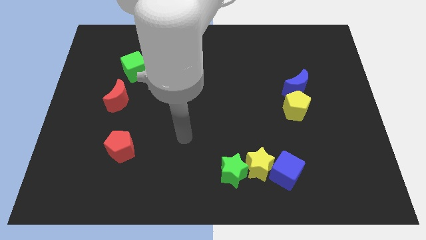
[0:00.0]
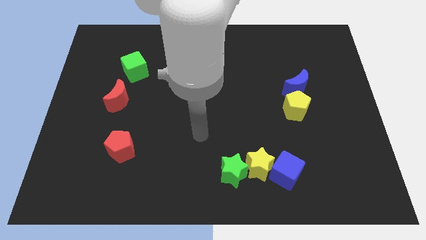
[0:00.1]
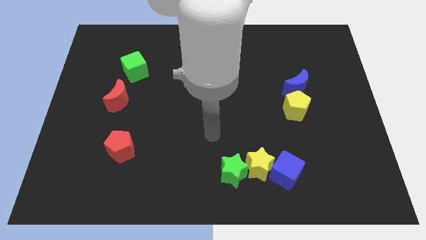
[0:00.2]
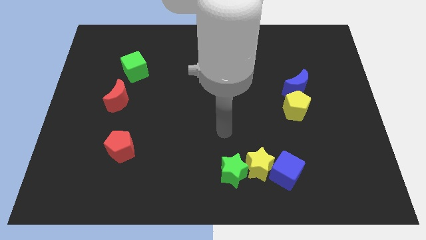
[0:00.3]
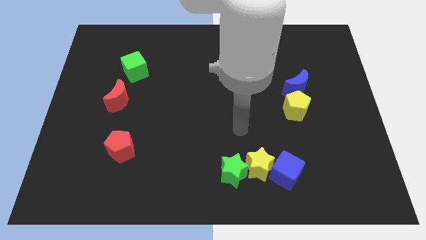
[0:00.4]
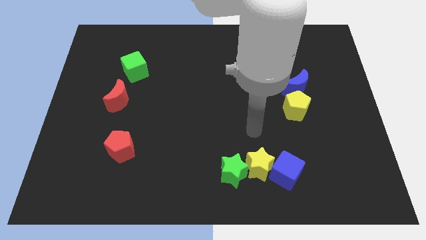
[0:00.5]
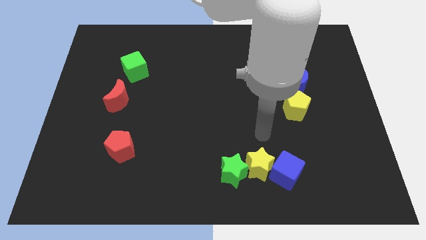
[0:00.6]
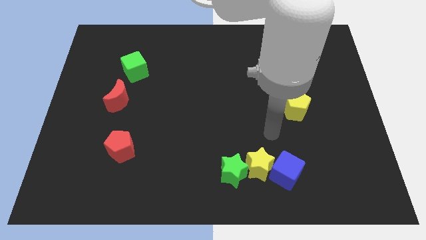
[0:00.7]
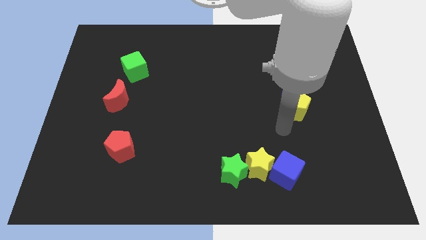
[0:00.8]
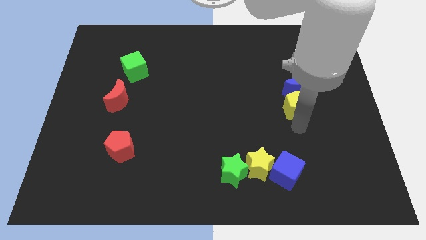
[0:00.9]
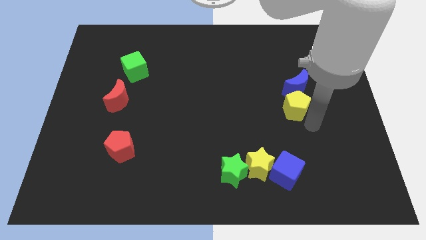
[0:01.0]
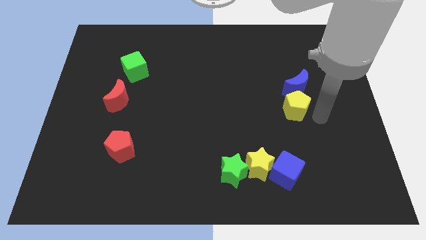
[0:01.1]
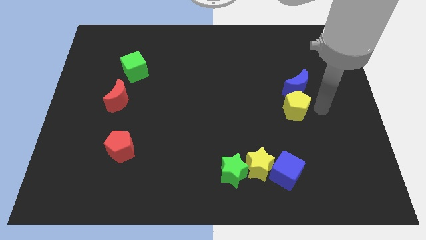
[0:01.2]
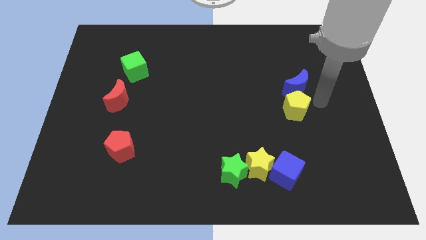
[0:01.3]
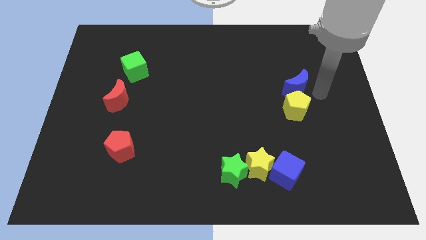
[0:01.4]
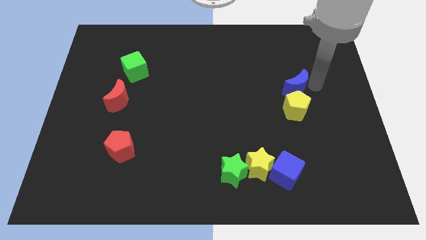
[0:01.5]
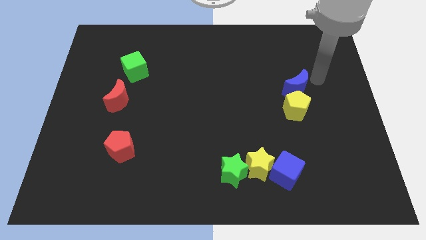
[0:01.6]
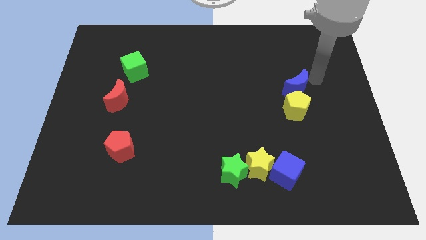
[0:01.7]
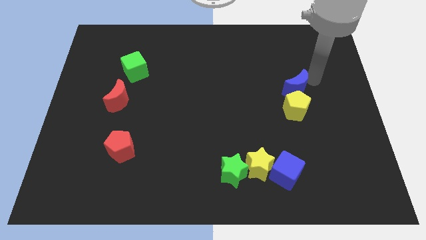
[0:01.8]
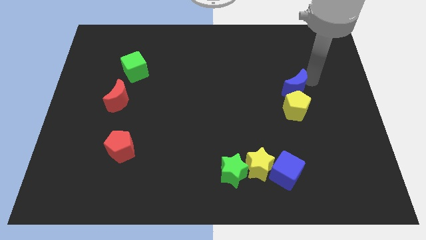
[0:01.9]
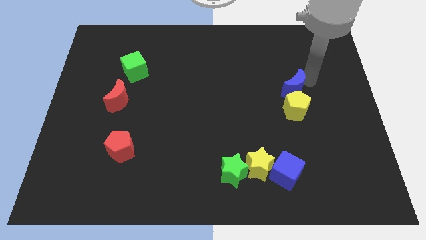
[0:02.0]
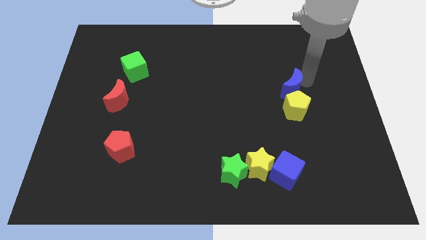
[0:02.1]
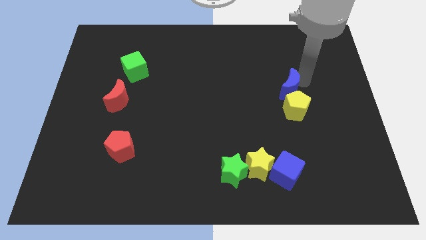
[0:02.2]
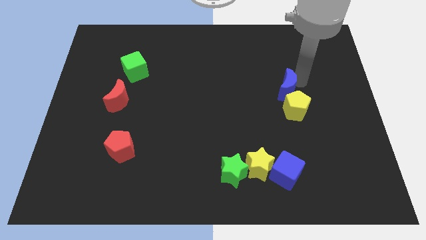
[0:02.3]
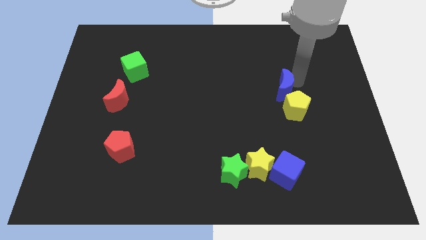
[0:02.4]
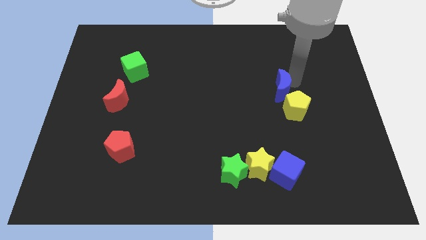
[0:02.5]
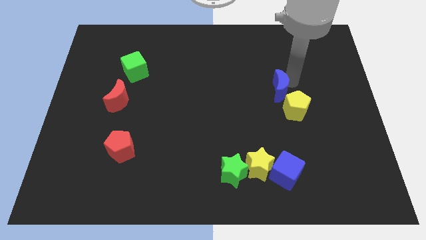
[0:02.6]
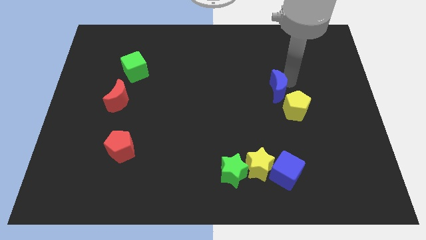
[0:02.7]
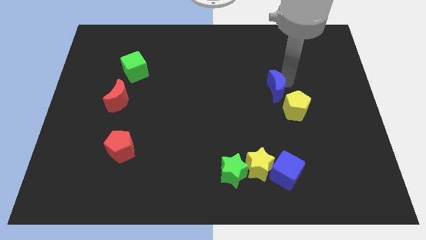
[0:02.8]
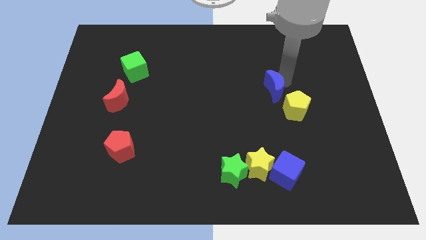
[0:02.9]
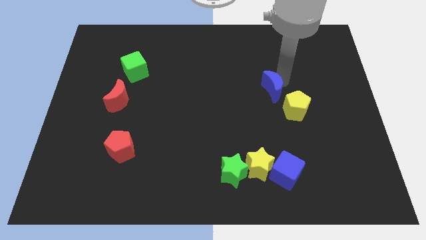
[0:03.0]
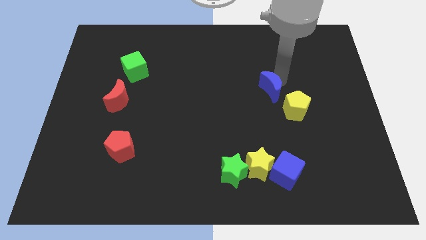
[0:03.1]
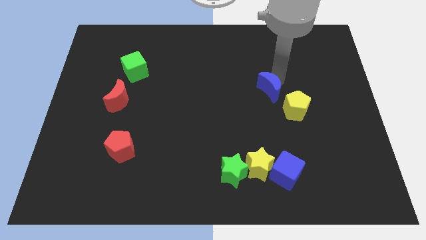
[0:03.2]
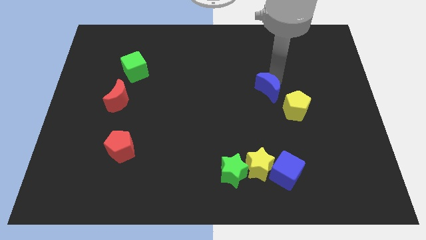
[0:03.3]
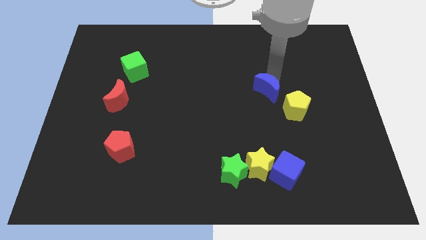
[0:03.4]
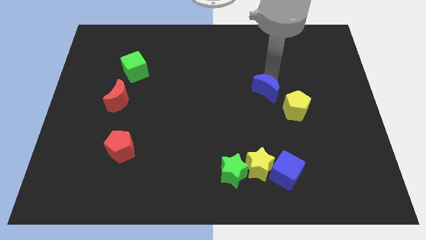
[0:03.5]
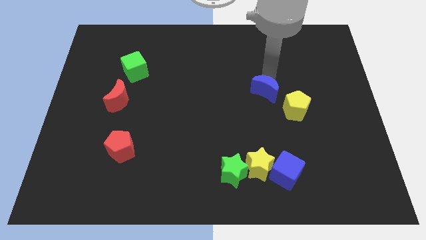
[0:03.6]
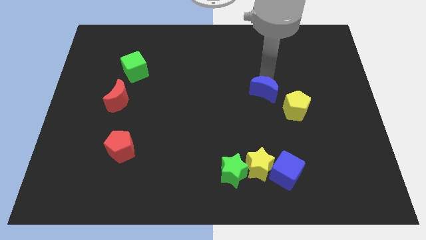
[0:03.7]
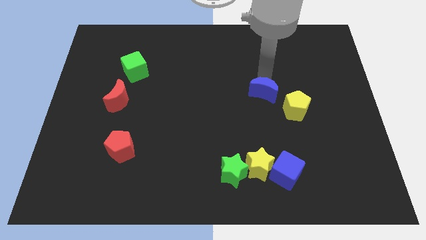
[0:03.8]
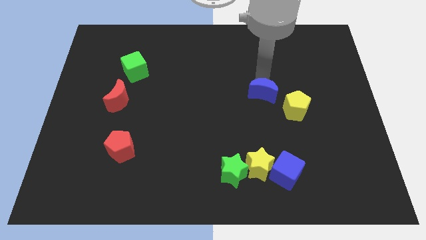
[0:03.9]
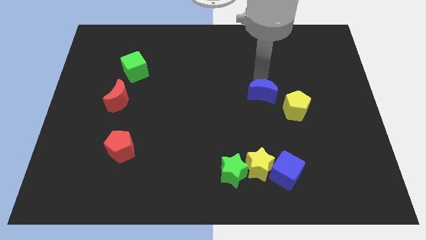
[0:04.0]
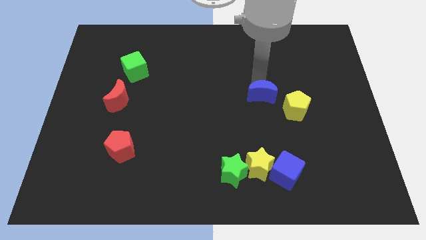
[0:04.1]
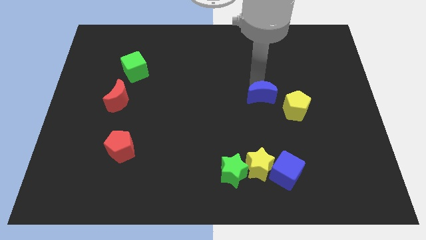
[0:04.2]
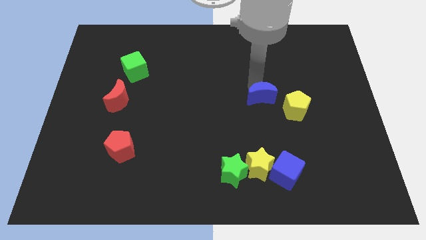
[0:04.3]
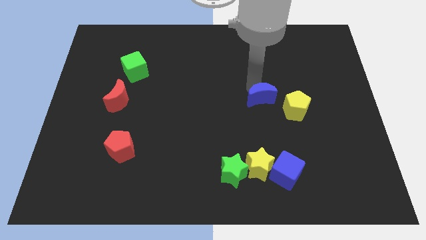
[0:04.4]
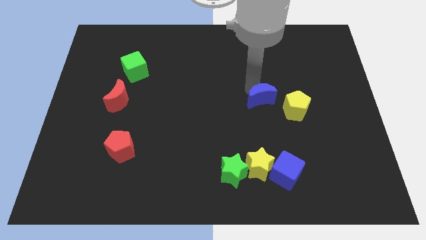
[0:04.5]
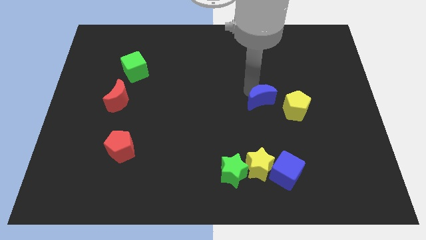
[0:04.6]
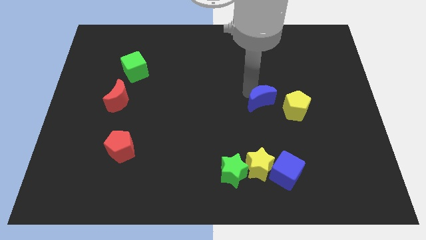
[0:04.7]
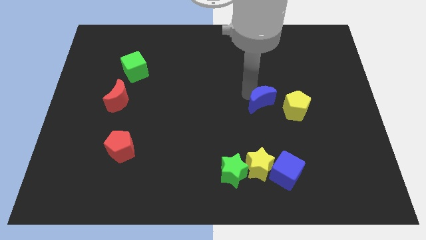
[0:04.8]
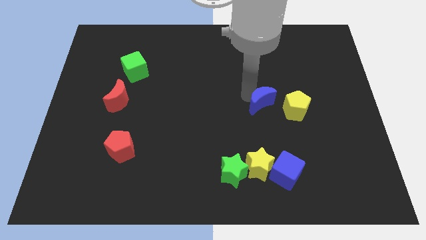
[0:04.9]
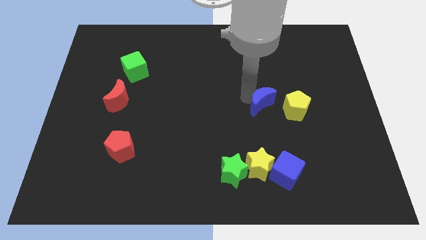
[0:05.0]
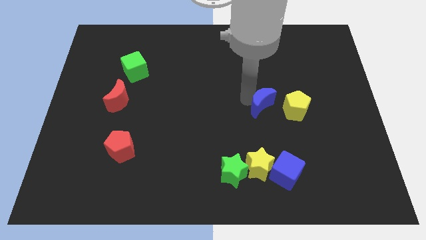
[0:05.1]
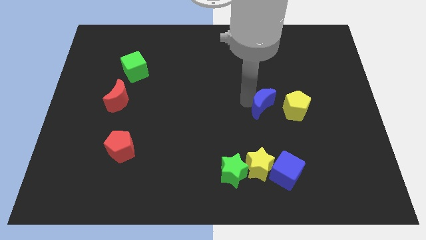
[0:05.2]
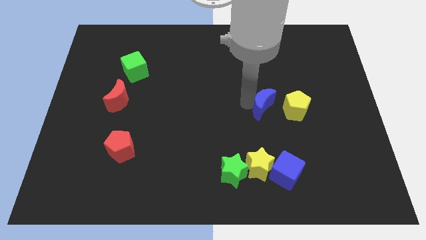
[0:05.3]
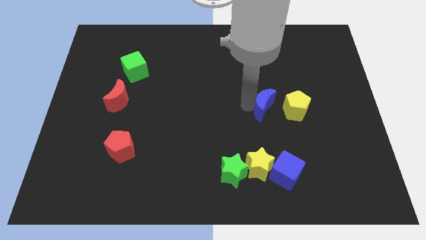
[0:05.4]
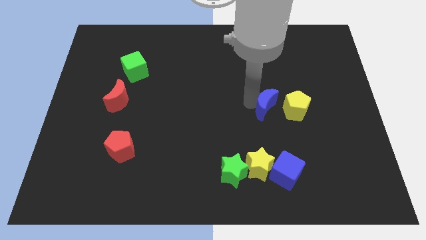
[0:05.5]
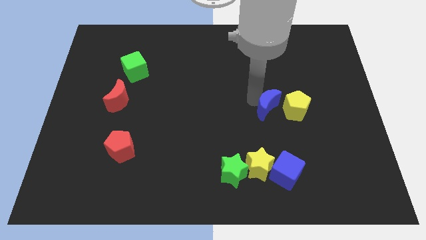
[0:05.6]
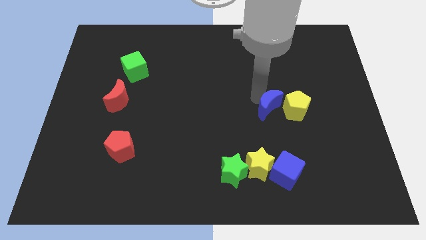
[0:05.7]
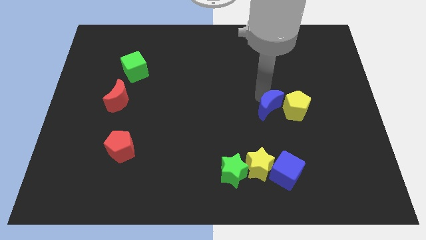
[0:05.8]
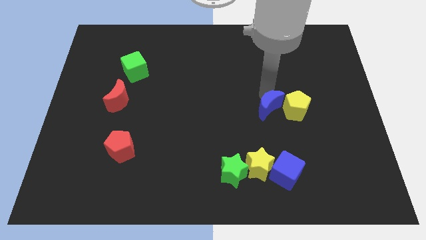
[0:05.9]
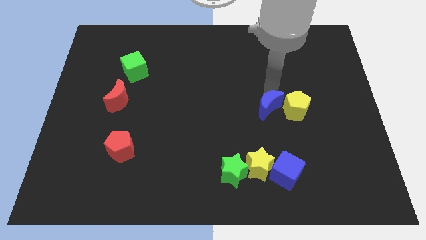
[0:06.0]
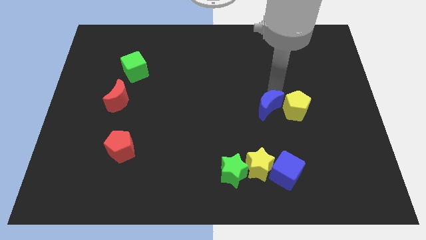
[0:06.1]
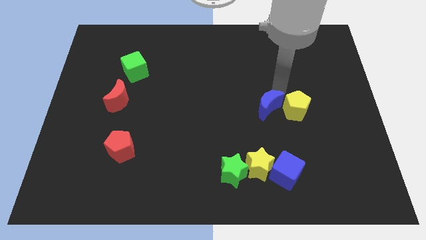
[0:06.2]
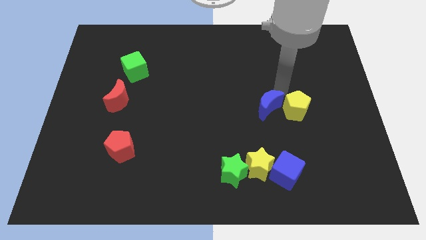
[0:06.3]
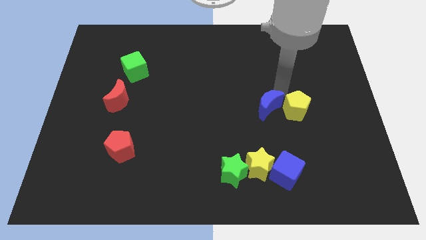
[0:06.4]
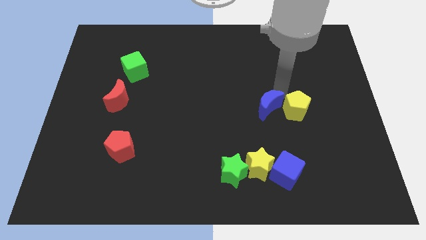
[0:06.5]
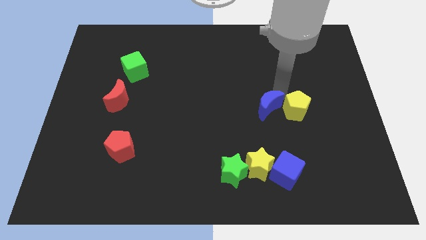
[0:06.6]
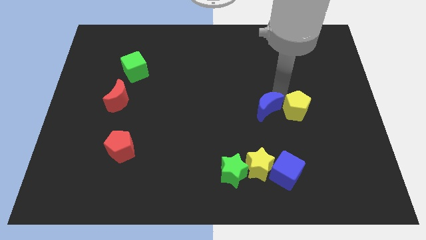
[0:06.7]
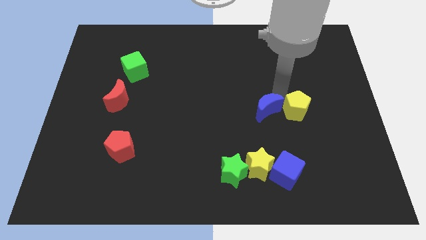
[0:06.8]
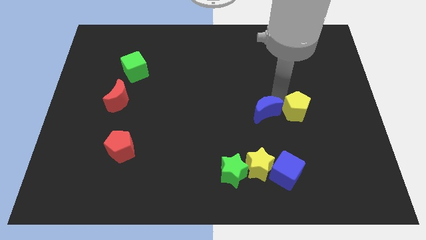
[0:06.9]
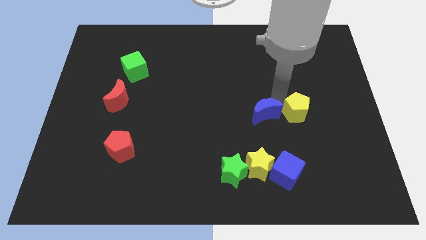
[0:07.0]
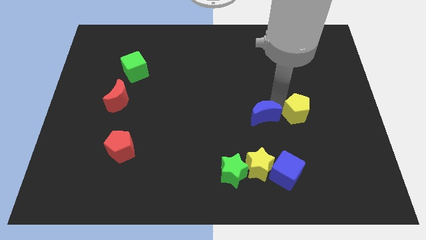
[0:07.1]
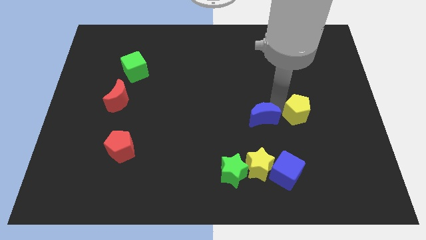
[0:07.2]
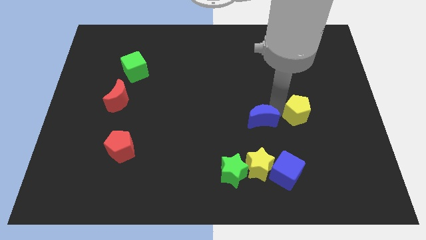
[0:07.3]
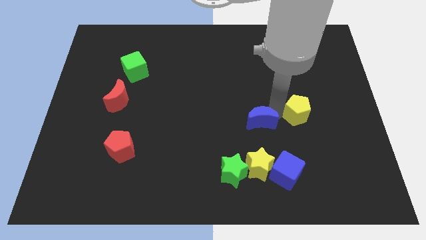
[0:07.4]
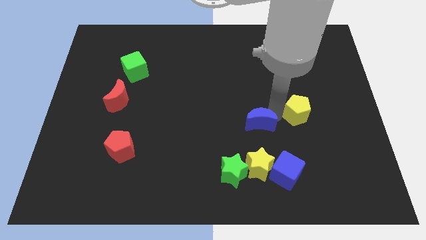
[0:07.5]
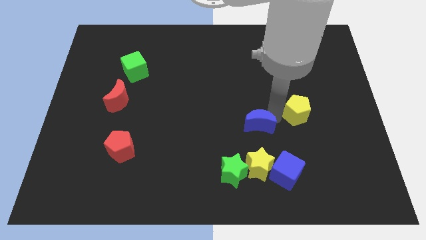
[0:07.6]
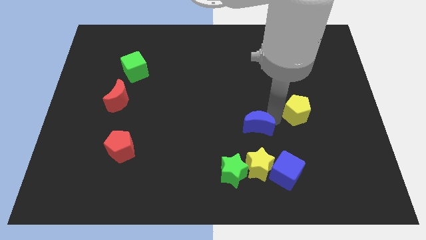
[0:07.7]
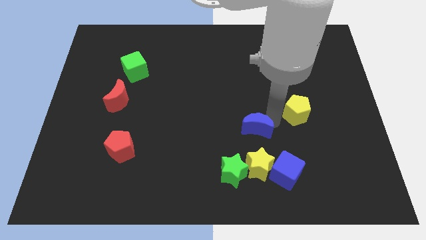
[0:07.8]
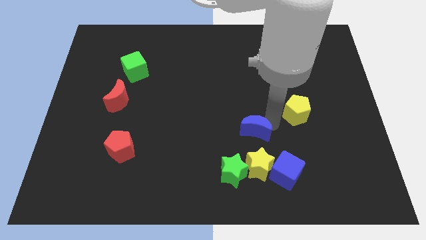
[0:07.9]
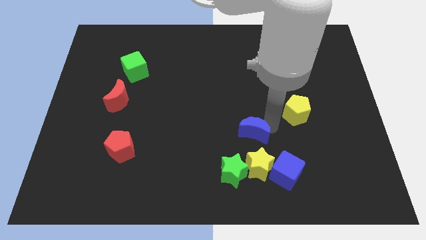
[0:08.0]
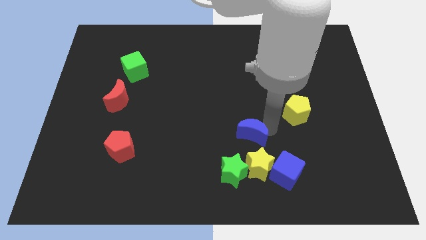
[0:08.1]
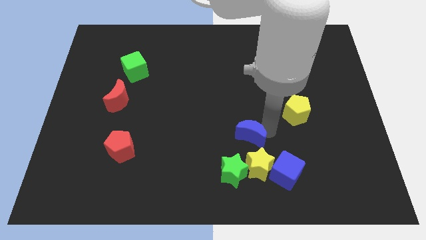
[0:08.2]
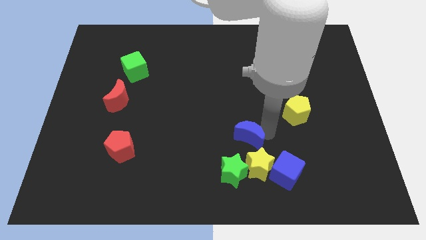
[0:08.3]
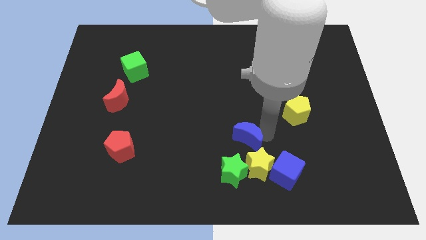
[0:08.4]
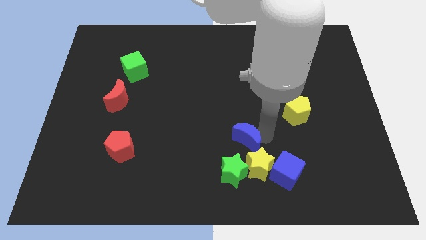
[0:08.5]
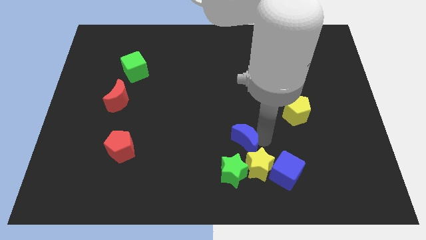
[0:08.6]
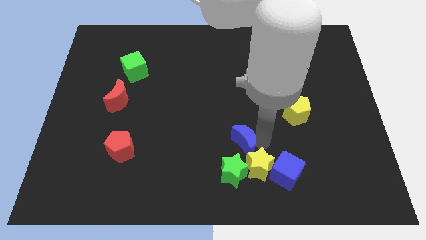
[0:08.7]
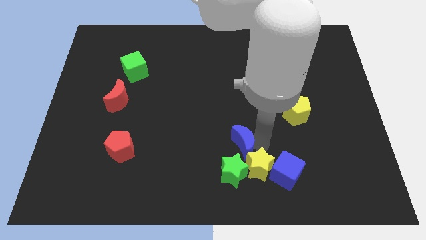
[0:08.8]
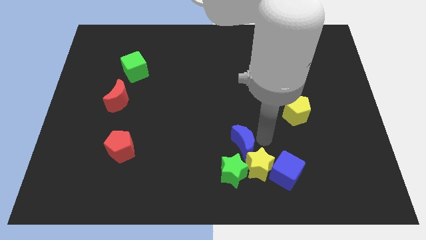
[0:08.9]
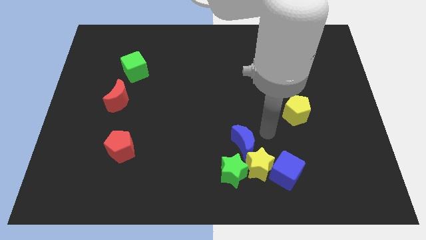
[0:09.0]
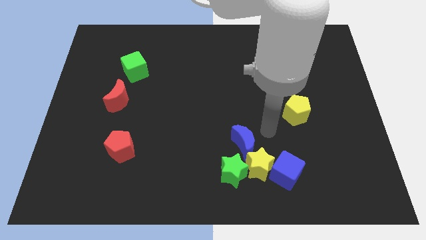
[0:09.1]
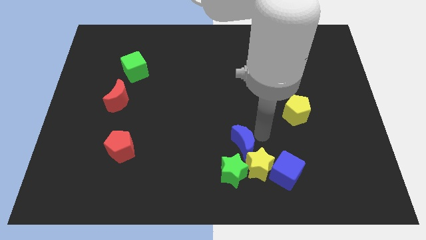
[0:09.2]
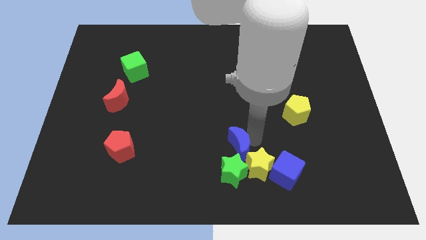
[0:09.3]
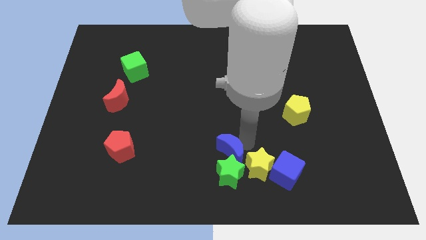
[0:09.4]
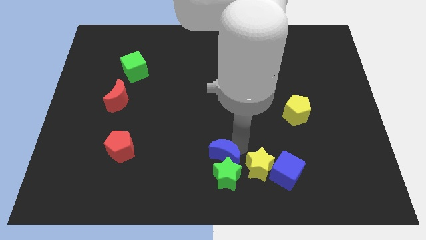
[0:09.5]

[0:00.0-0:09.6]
slide the blue moon to the bottom
